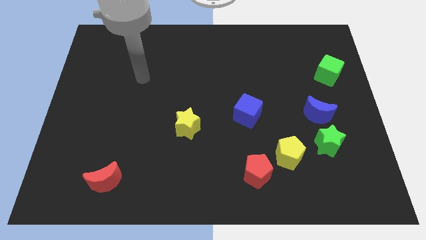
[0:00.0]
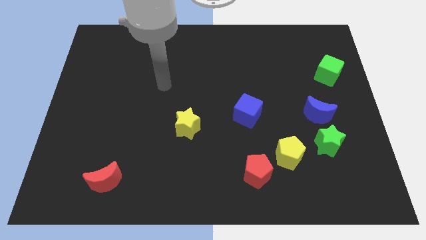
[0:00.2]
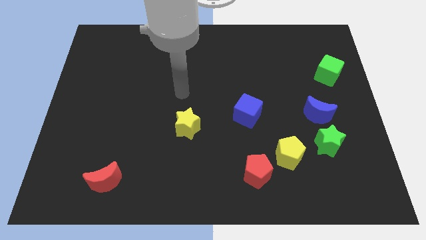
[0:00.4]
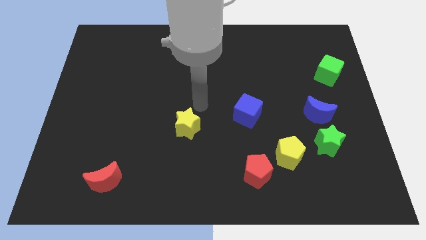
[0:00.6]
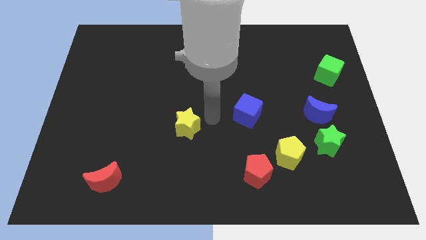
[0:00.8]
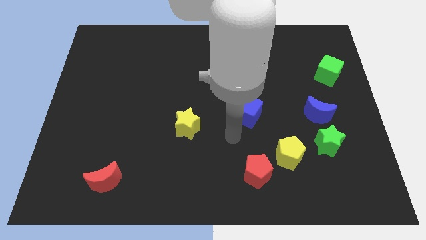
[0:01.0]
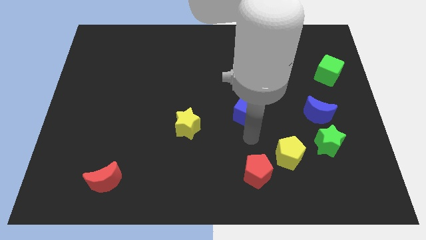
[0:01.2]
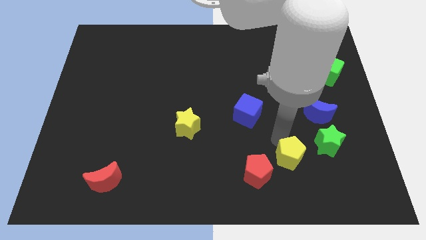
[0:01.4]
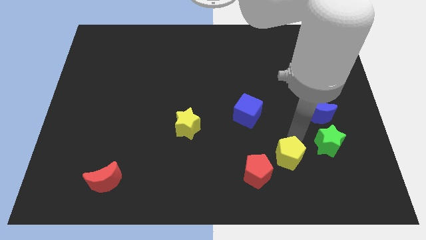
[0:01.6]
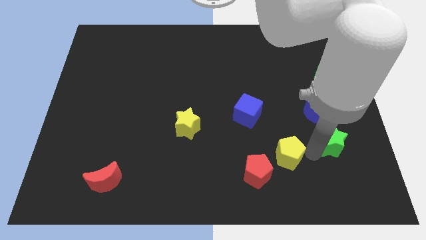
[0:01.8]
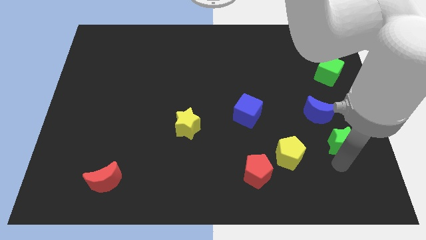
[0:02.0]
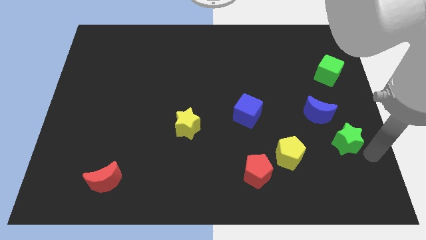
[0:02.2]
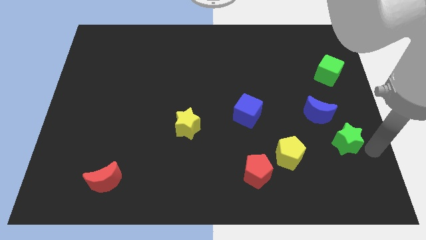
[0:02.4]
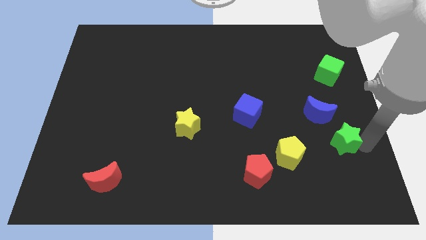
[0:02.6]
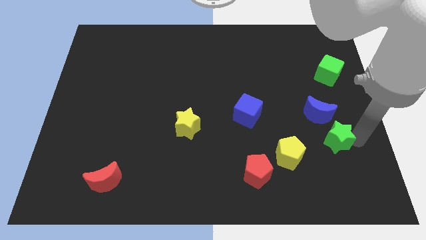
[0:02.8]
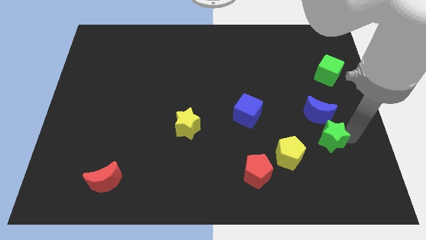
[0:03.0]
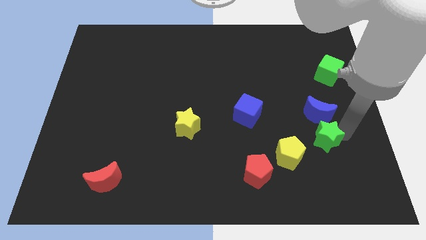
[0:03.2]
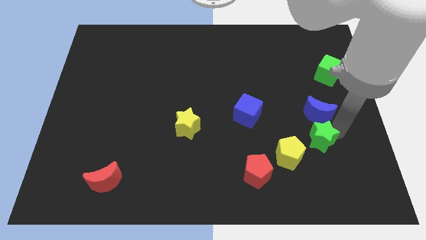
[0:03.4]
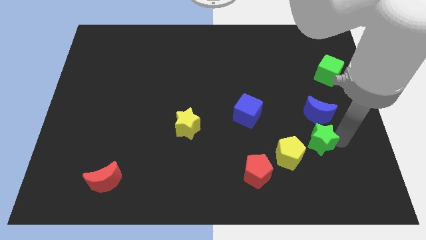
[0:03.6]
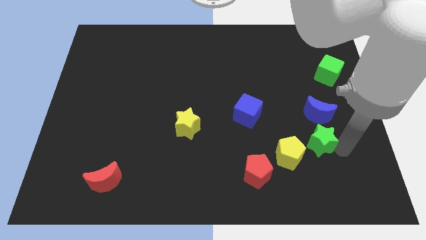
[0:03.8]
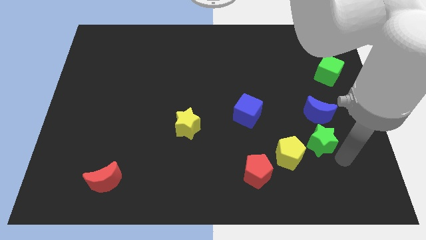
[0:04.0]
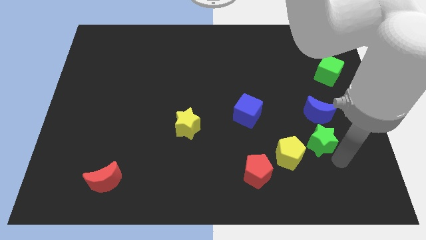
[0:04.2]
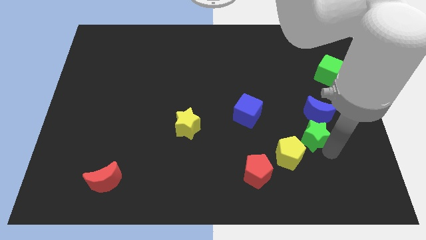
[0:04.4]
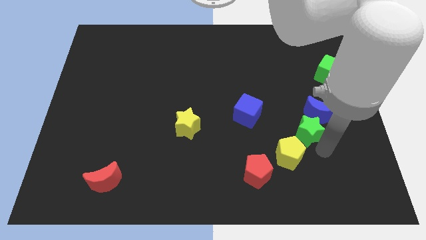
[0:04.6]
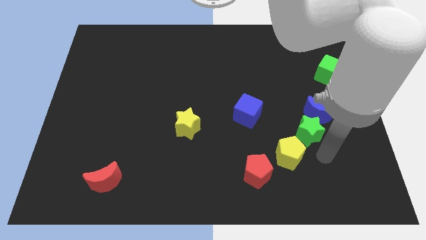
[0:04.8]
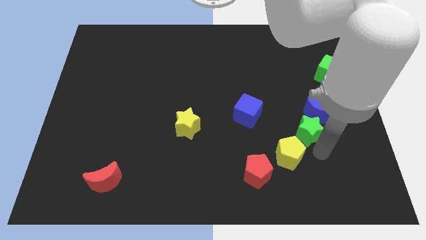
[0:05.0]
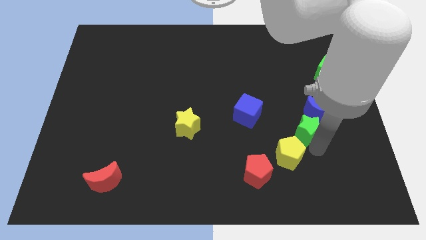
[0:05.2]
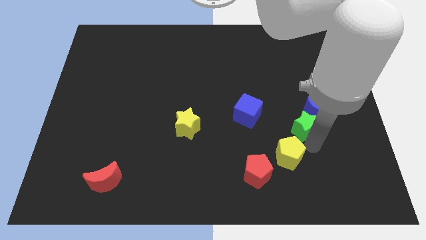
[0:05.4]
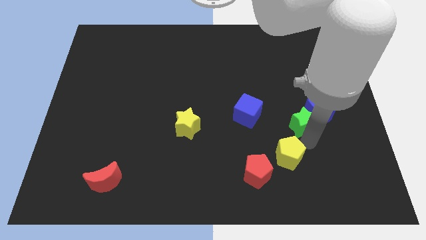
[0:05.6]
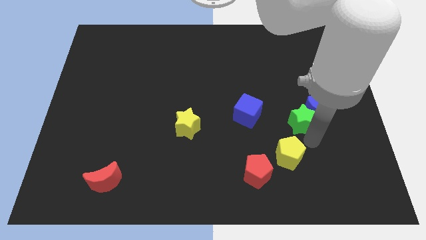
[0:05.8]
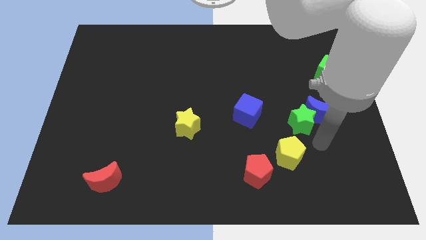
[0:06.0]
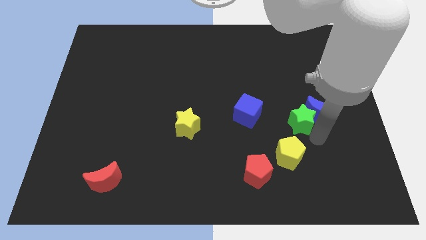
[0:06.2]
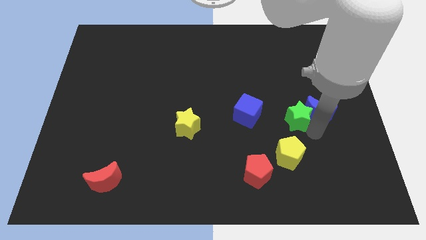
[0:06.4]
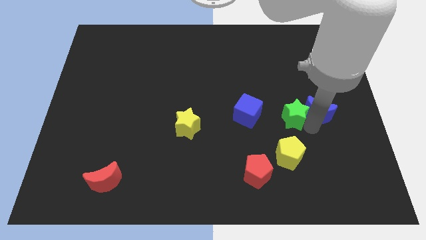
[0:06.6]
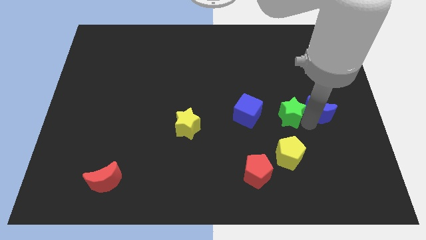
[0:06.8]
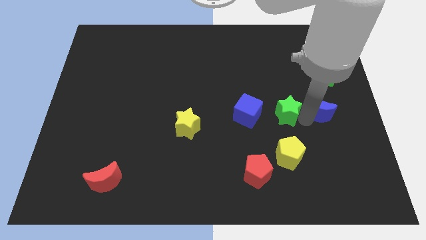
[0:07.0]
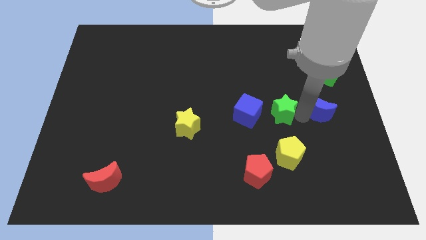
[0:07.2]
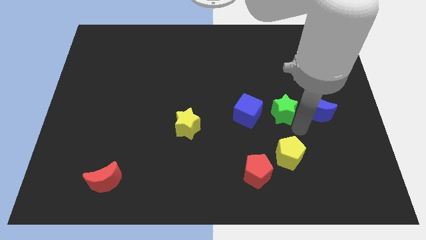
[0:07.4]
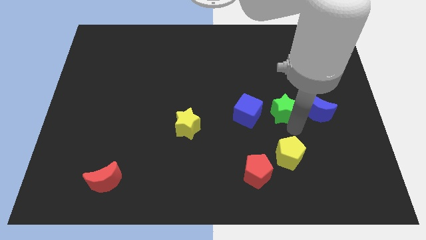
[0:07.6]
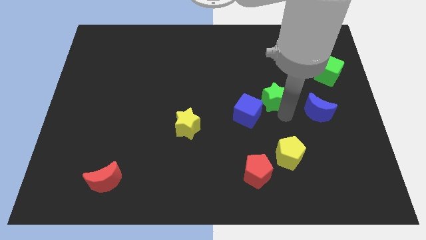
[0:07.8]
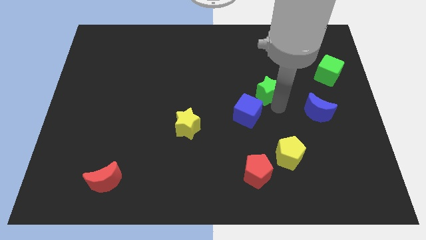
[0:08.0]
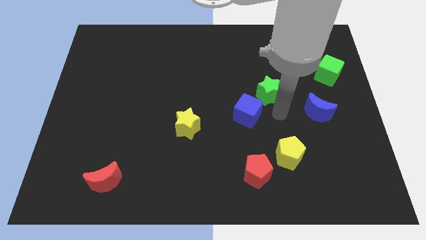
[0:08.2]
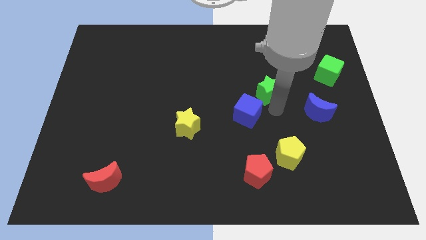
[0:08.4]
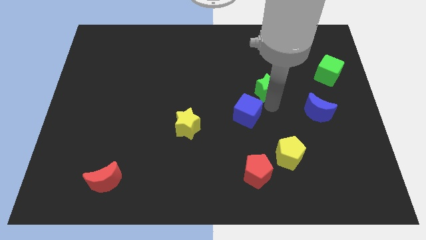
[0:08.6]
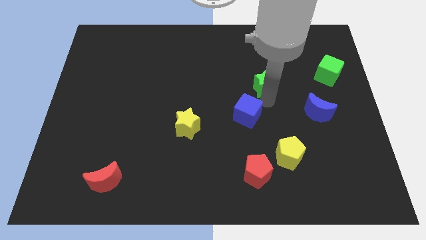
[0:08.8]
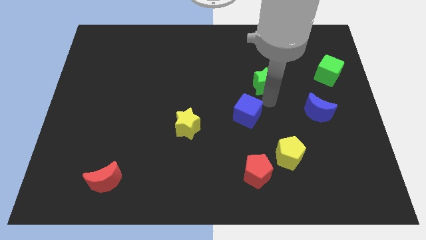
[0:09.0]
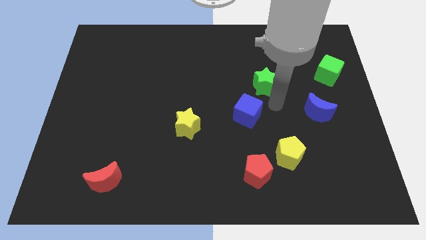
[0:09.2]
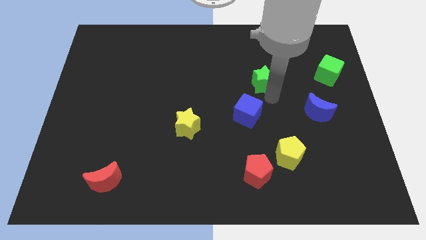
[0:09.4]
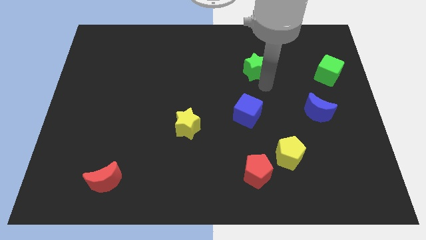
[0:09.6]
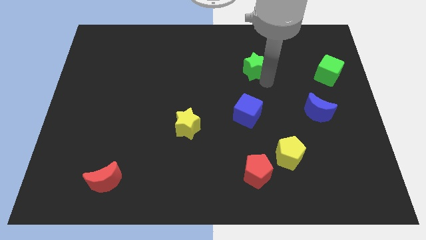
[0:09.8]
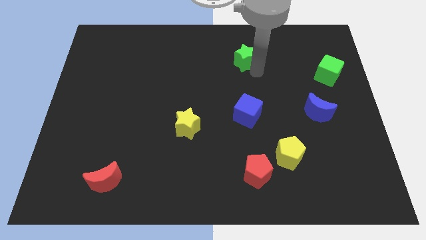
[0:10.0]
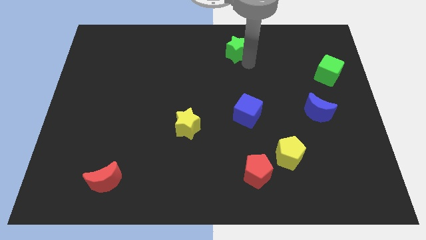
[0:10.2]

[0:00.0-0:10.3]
move the green star to the top

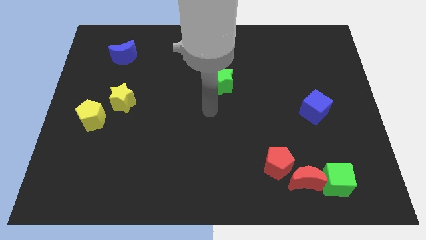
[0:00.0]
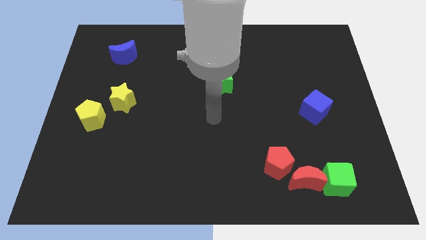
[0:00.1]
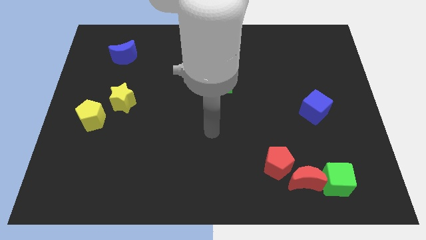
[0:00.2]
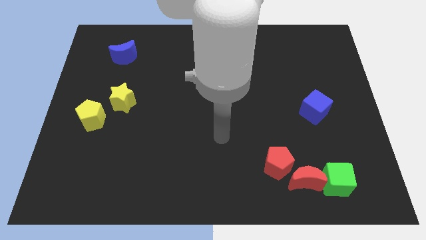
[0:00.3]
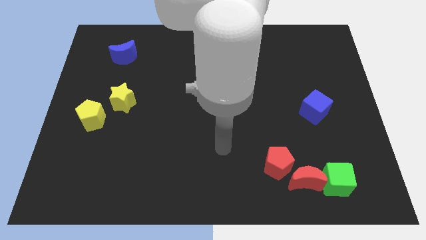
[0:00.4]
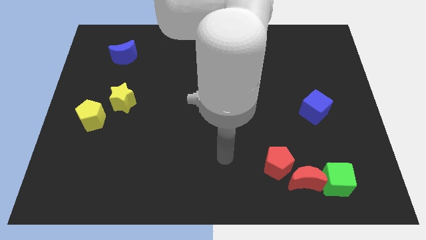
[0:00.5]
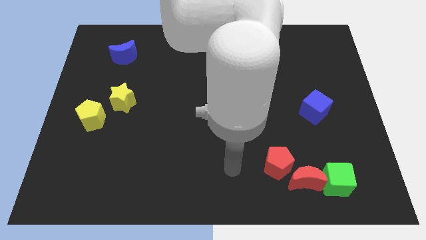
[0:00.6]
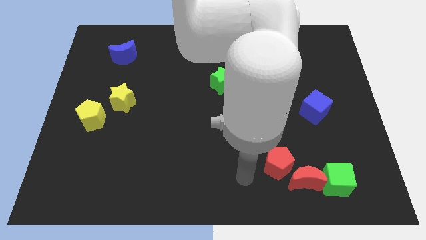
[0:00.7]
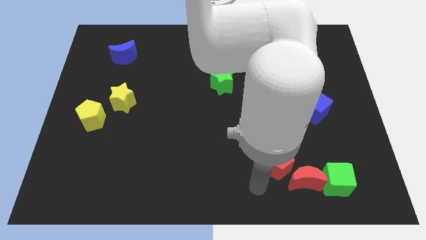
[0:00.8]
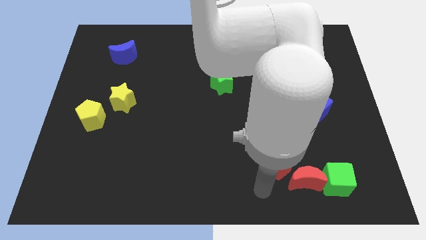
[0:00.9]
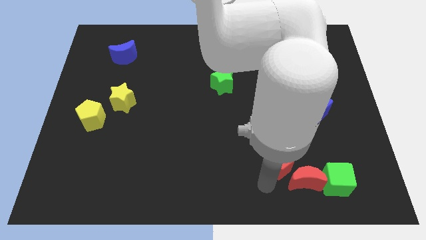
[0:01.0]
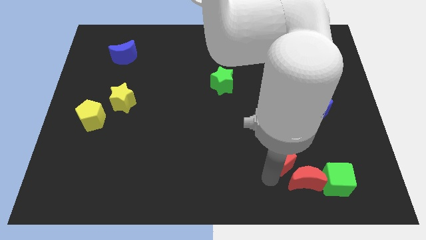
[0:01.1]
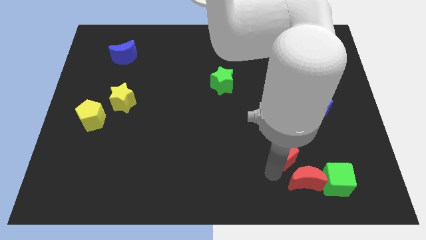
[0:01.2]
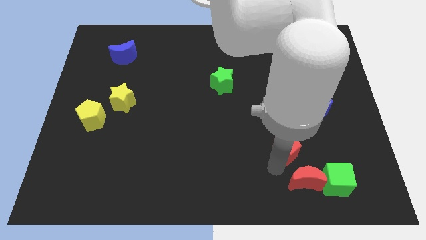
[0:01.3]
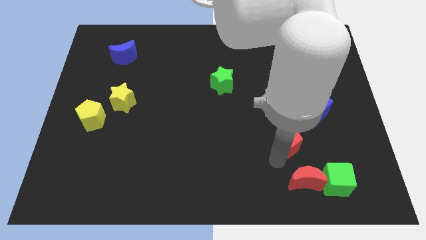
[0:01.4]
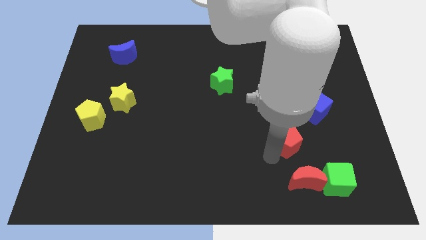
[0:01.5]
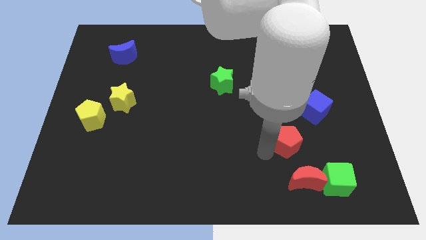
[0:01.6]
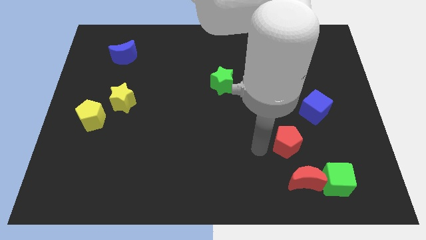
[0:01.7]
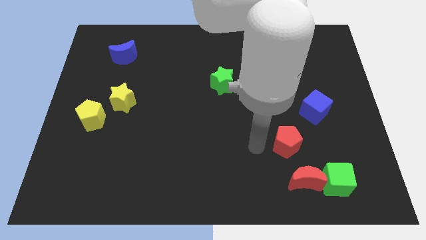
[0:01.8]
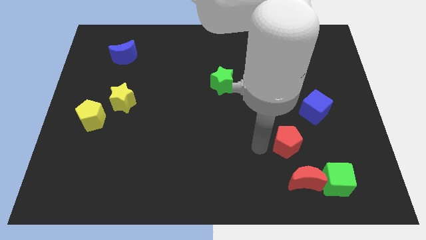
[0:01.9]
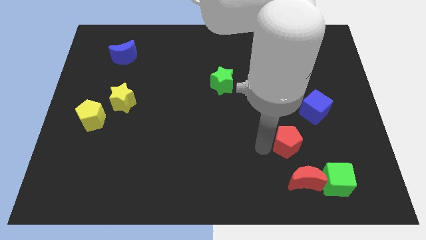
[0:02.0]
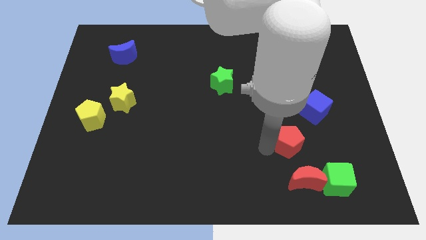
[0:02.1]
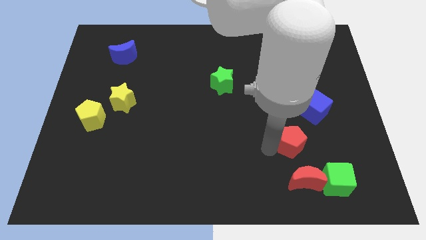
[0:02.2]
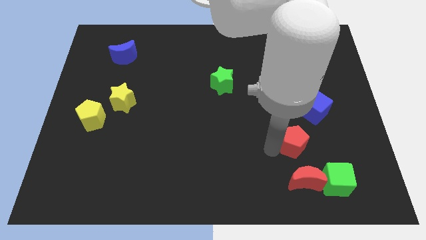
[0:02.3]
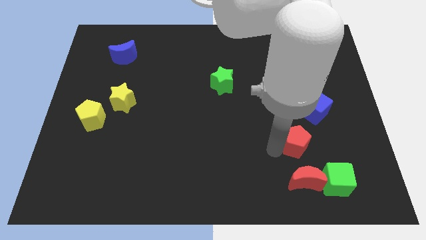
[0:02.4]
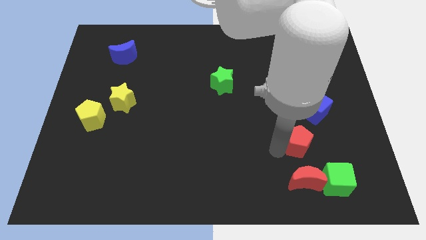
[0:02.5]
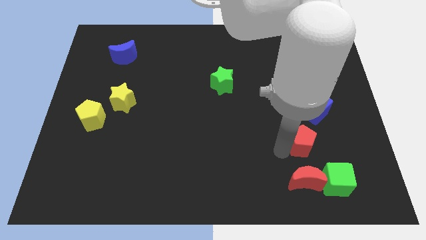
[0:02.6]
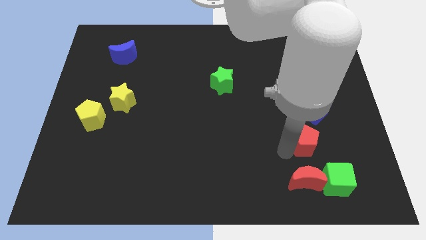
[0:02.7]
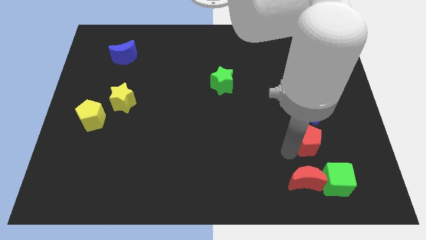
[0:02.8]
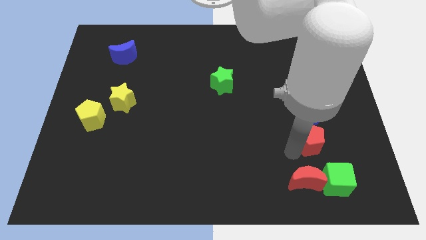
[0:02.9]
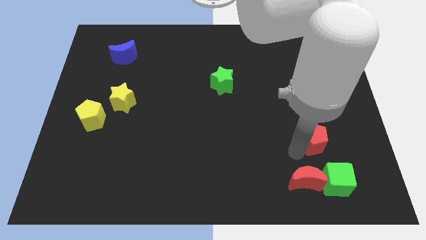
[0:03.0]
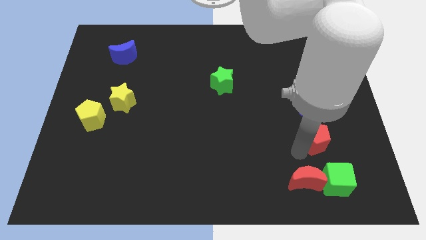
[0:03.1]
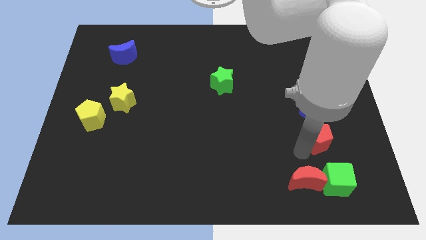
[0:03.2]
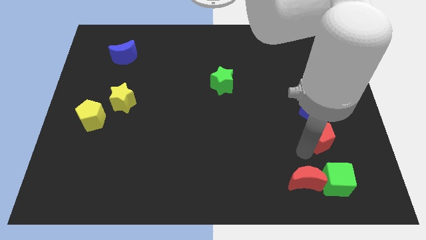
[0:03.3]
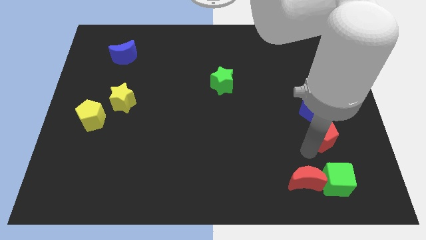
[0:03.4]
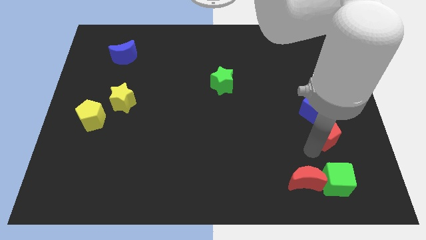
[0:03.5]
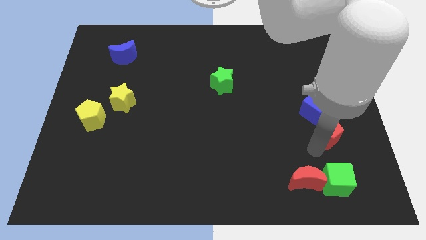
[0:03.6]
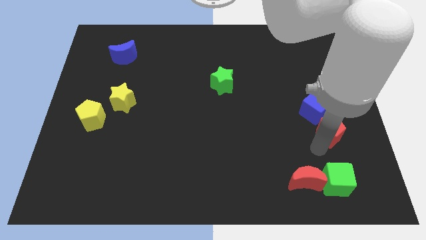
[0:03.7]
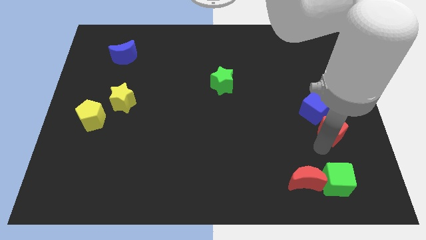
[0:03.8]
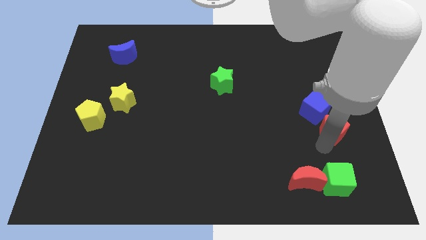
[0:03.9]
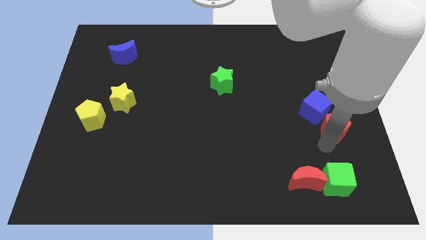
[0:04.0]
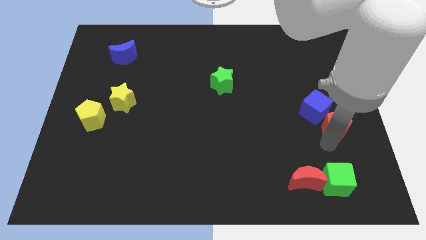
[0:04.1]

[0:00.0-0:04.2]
push the red pentagon to the right side
